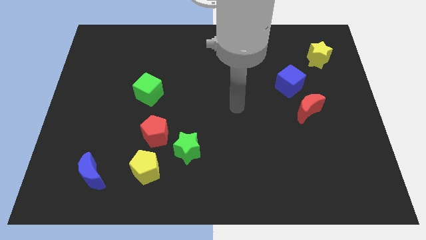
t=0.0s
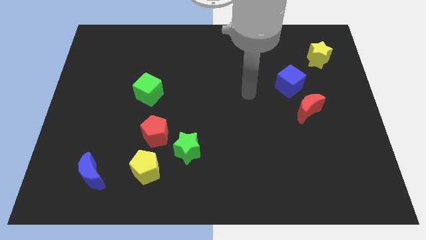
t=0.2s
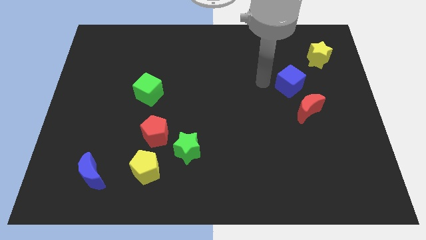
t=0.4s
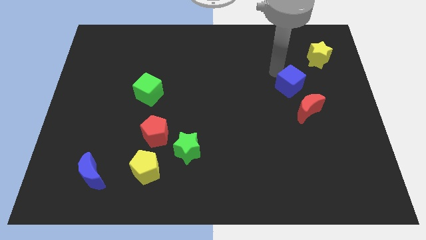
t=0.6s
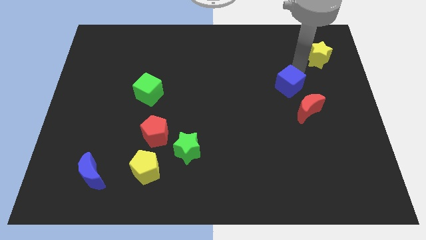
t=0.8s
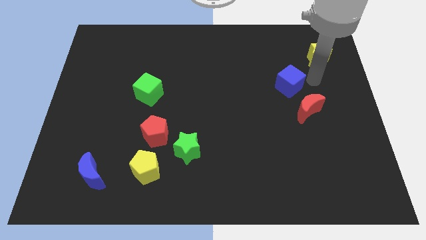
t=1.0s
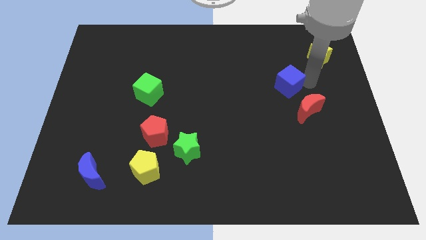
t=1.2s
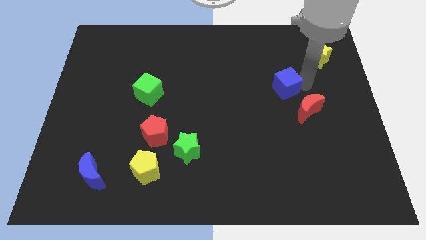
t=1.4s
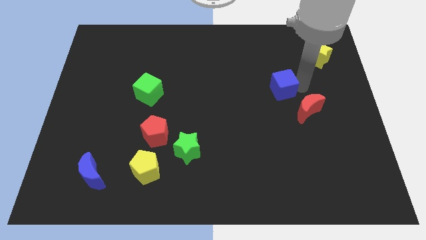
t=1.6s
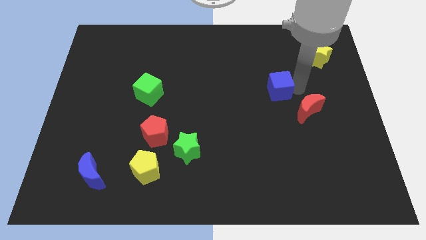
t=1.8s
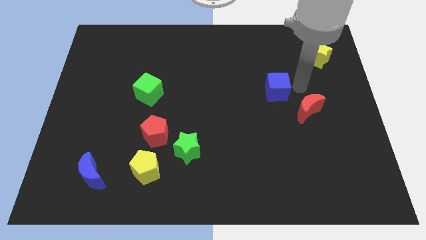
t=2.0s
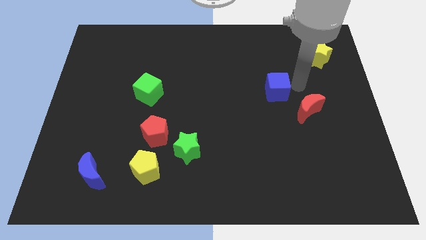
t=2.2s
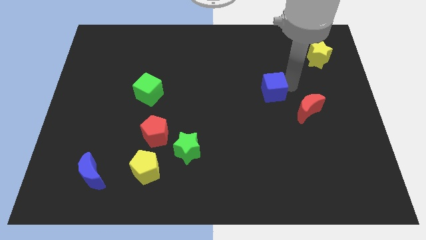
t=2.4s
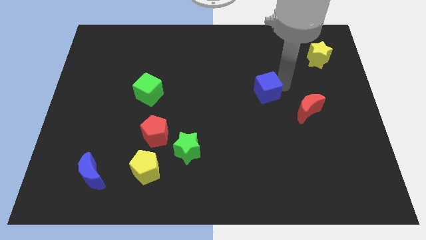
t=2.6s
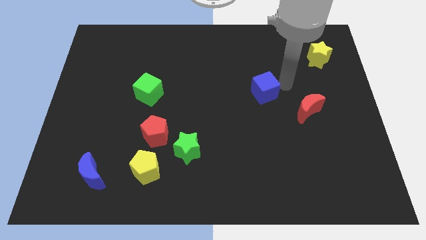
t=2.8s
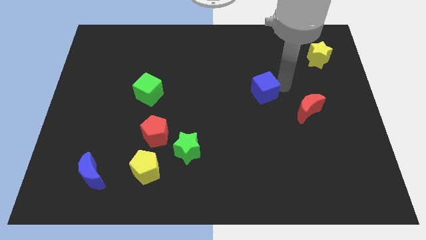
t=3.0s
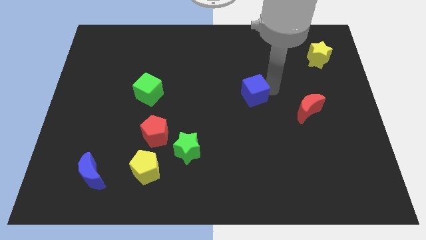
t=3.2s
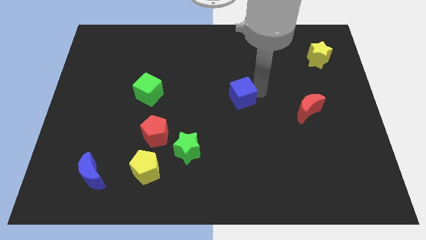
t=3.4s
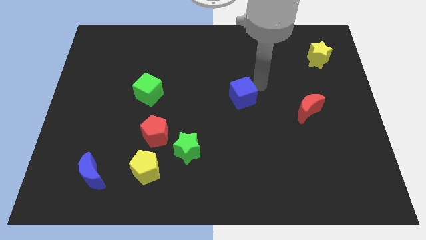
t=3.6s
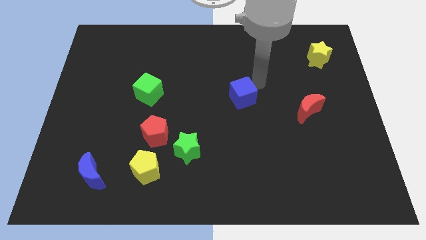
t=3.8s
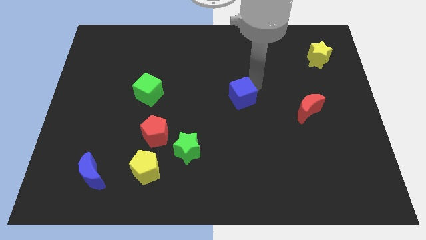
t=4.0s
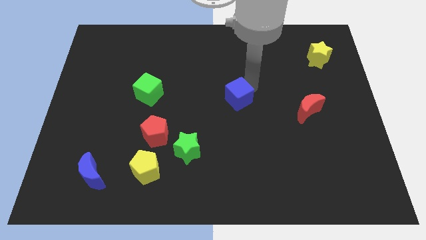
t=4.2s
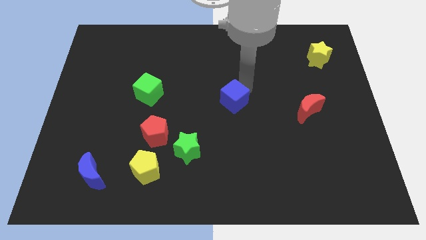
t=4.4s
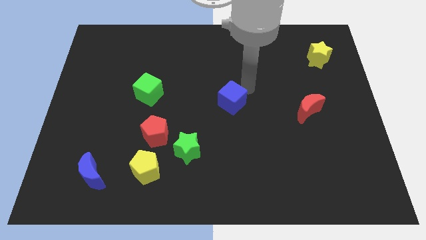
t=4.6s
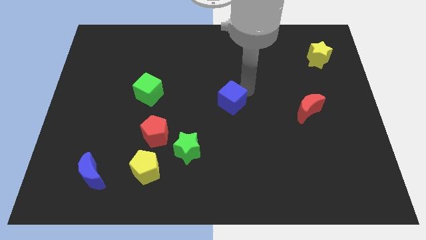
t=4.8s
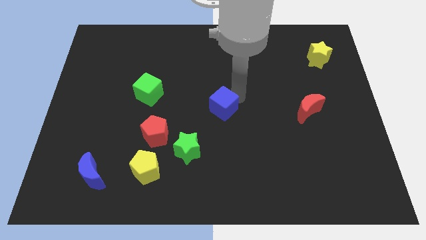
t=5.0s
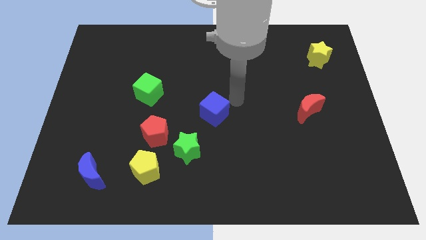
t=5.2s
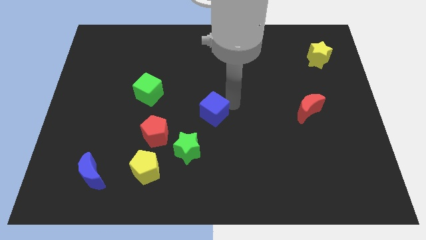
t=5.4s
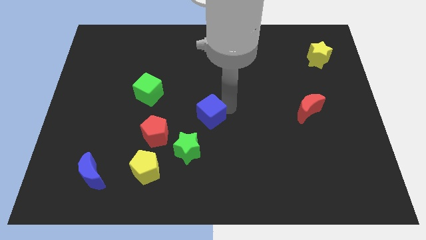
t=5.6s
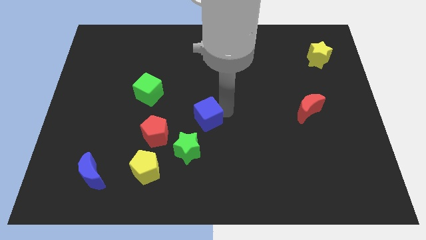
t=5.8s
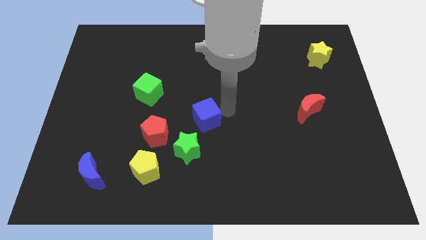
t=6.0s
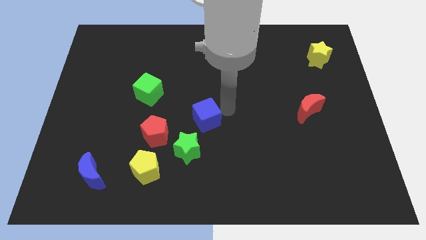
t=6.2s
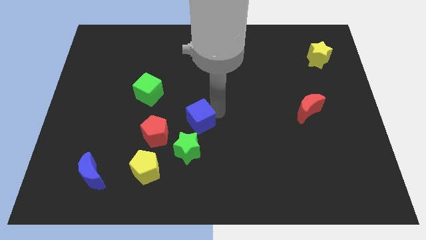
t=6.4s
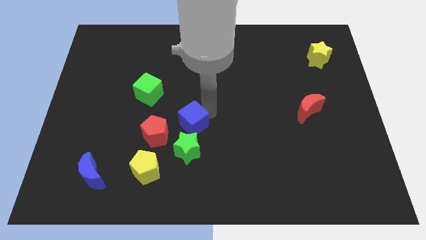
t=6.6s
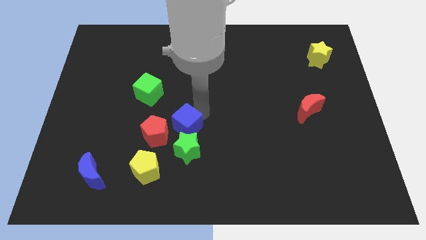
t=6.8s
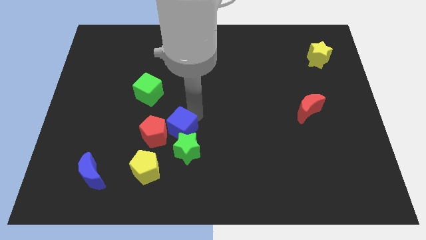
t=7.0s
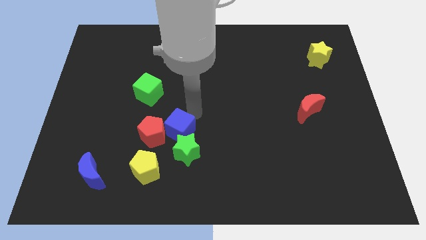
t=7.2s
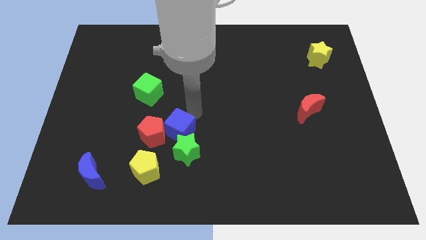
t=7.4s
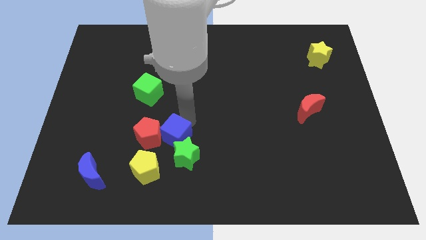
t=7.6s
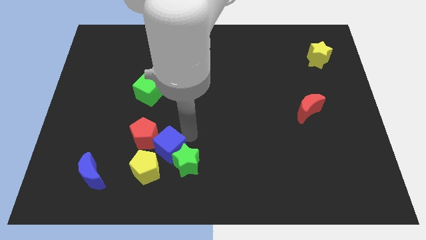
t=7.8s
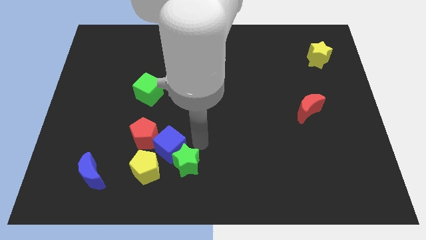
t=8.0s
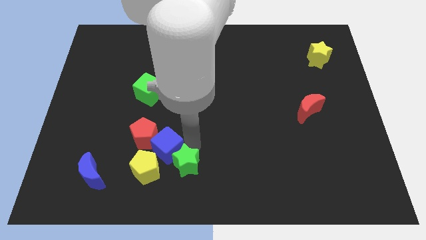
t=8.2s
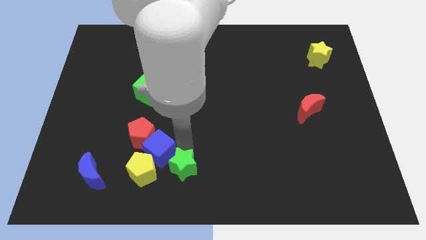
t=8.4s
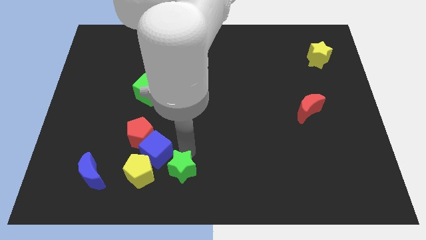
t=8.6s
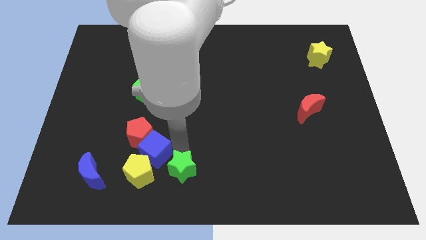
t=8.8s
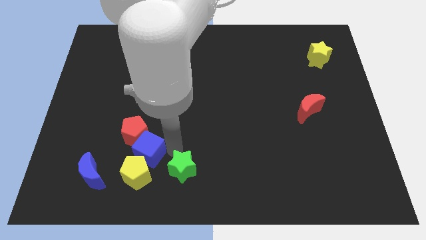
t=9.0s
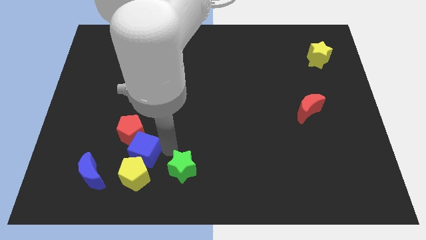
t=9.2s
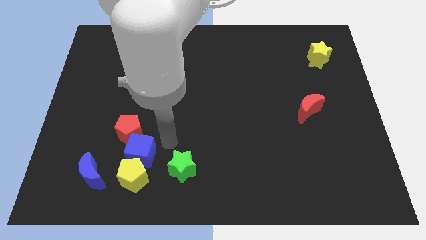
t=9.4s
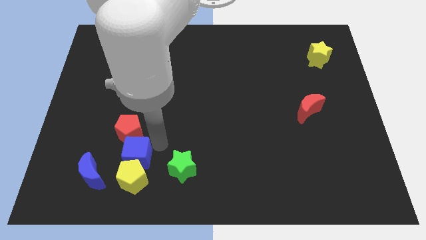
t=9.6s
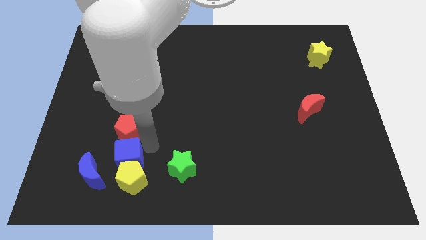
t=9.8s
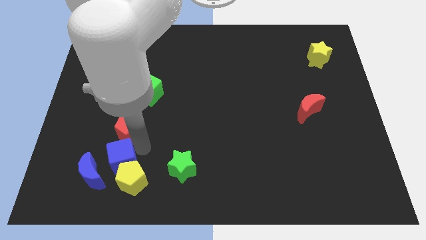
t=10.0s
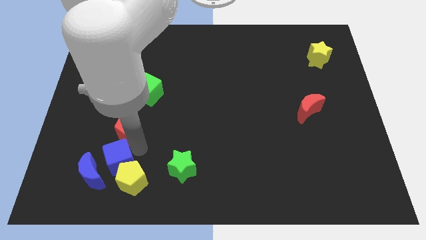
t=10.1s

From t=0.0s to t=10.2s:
slide the blue cube close to the blue moon

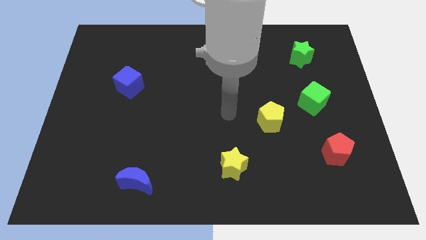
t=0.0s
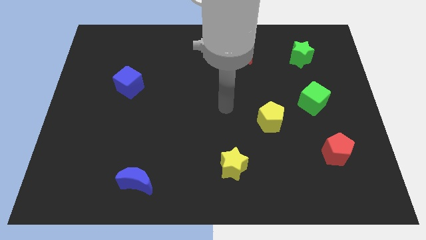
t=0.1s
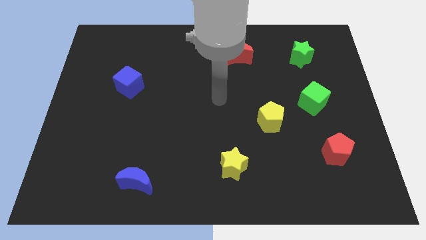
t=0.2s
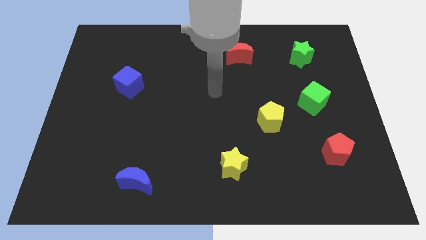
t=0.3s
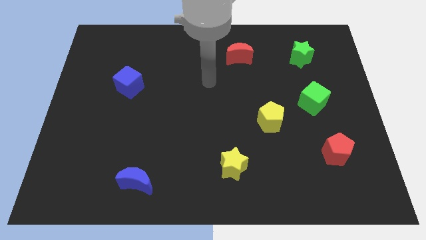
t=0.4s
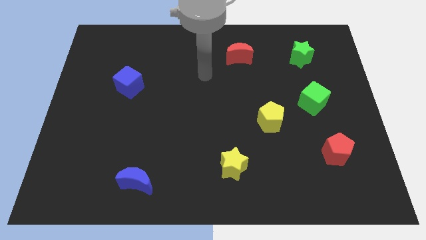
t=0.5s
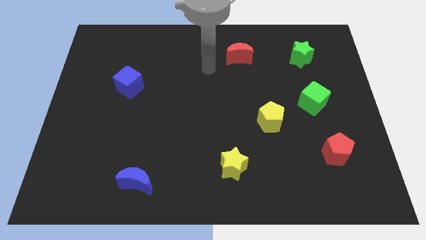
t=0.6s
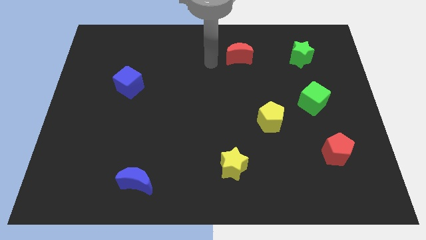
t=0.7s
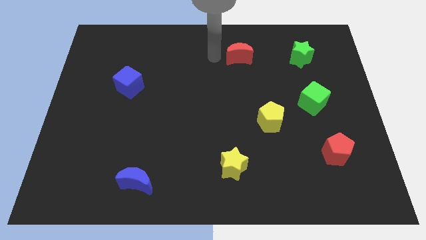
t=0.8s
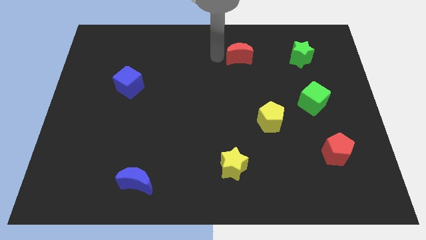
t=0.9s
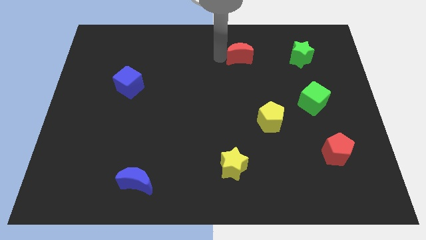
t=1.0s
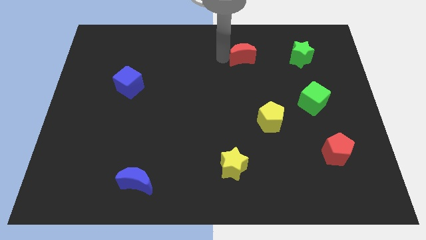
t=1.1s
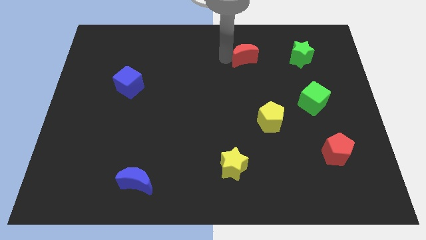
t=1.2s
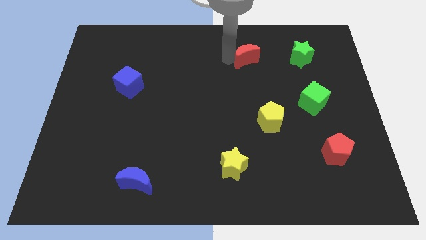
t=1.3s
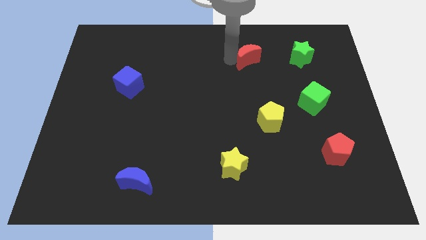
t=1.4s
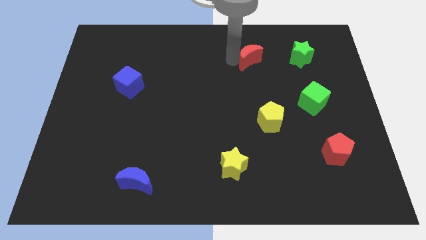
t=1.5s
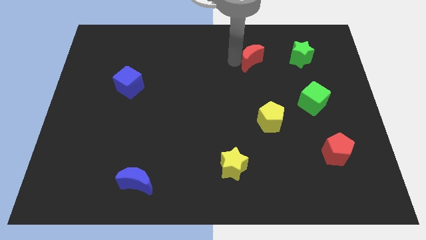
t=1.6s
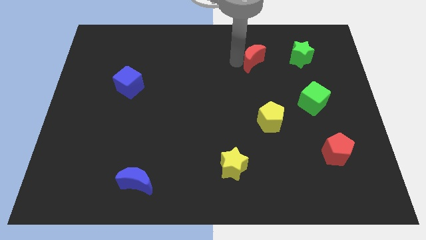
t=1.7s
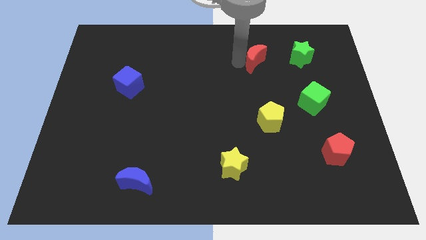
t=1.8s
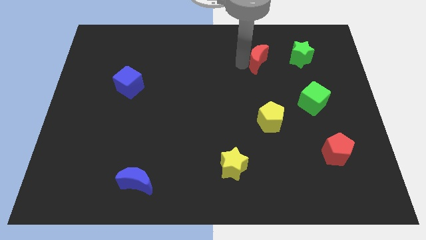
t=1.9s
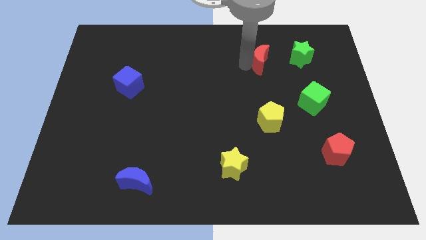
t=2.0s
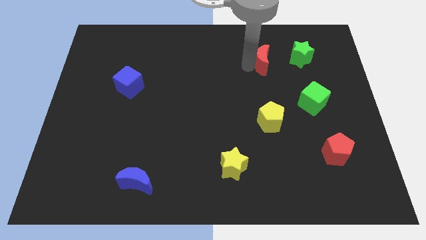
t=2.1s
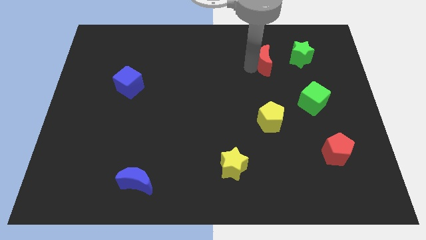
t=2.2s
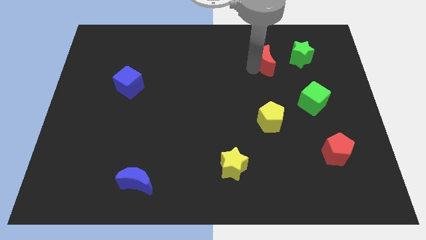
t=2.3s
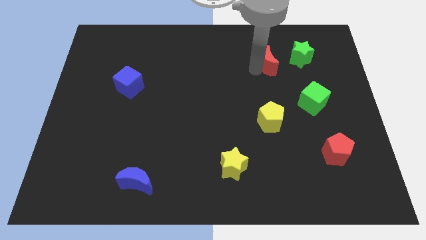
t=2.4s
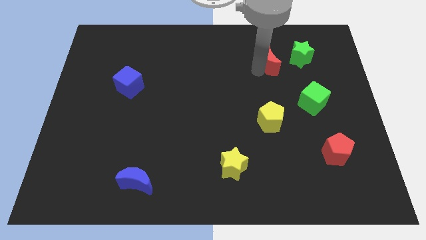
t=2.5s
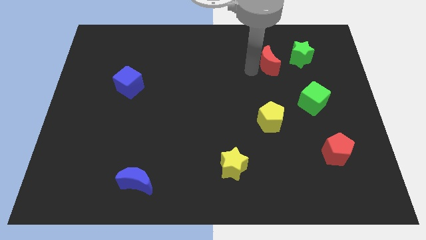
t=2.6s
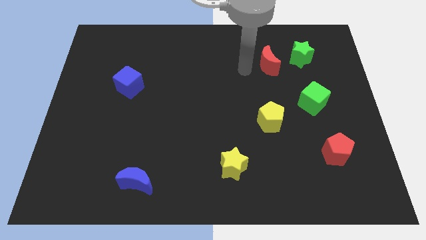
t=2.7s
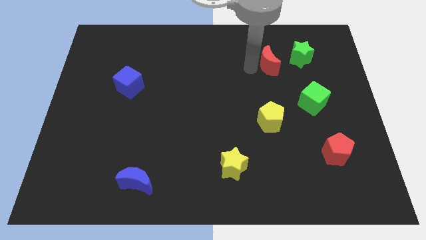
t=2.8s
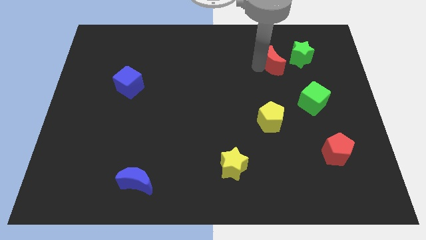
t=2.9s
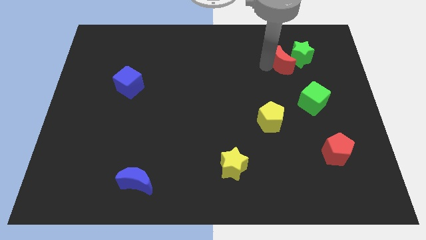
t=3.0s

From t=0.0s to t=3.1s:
put the red moon towards the green star
